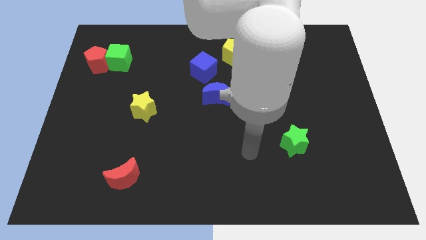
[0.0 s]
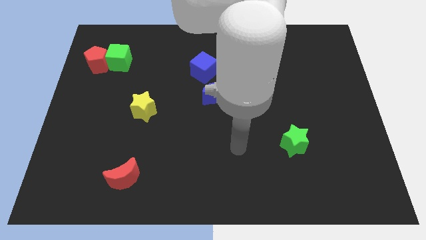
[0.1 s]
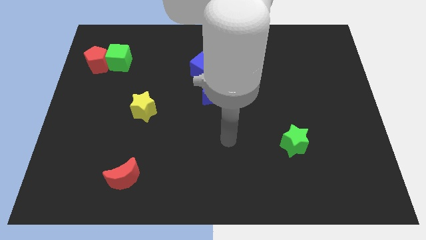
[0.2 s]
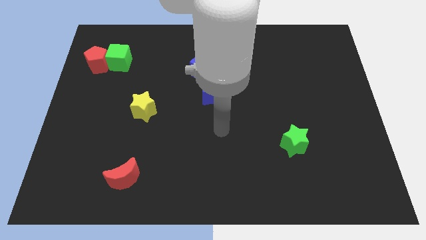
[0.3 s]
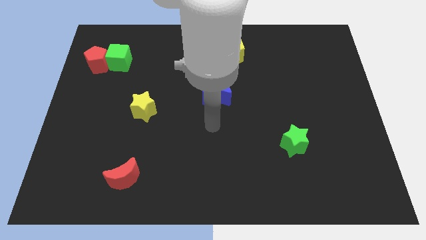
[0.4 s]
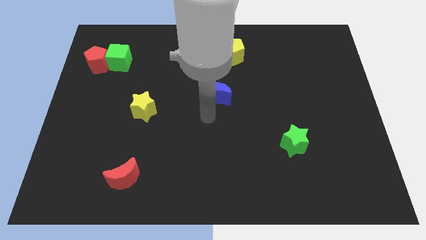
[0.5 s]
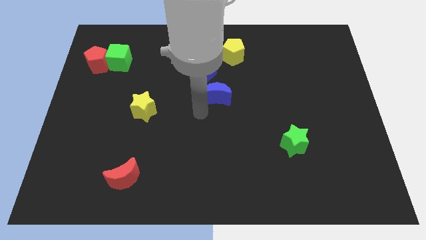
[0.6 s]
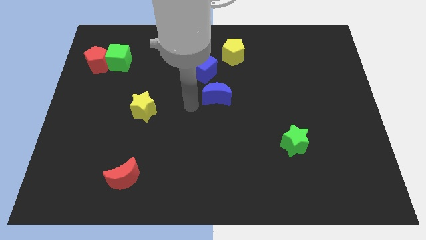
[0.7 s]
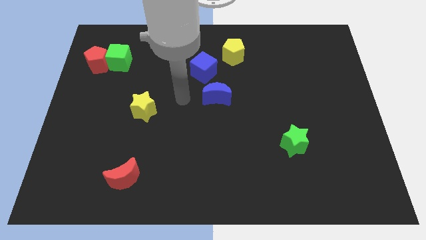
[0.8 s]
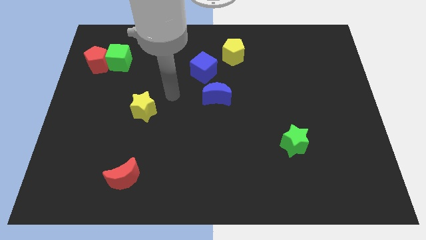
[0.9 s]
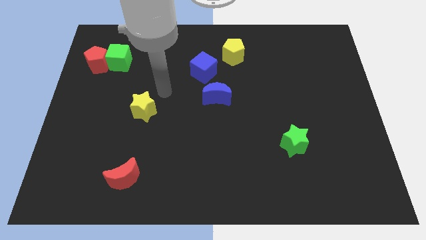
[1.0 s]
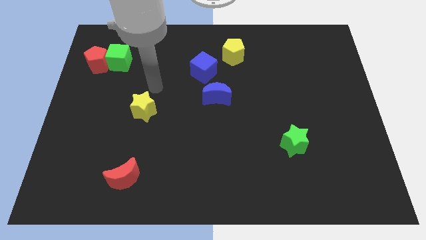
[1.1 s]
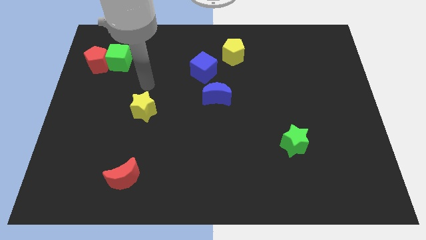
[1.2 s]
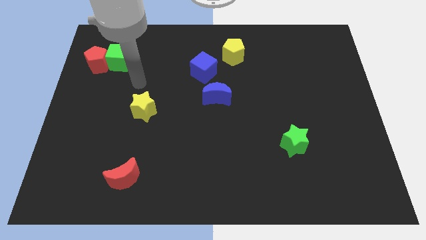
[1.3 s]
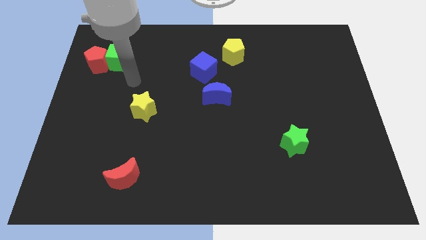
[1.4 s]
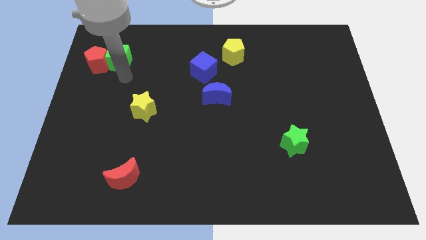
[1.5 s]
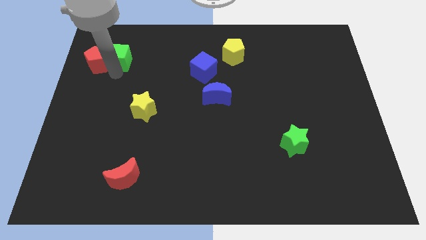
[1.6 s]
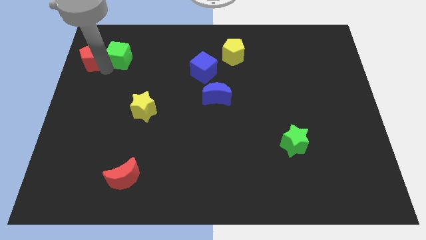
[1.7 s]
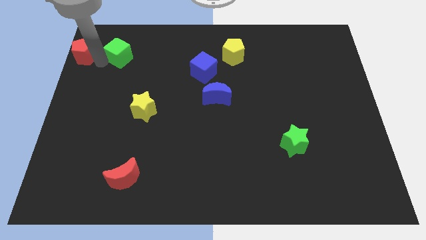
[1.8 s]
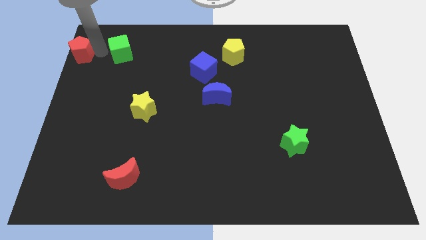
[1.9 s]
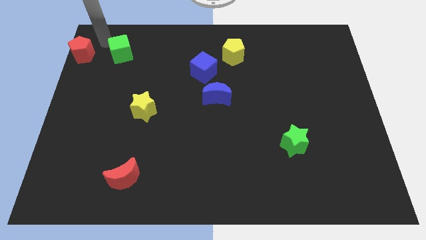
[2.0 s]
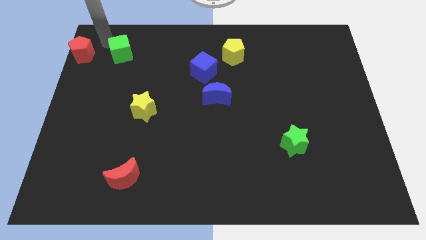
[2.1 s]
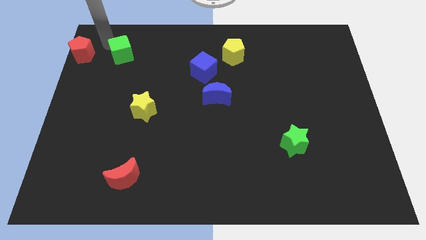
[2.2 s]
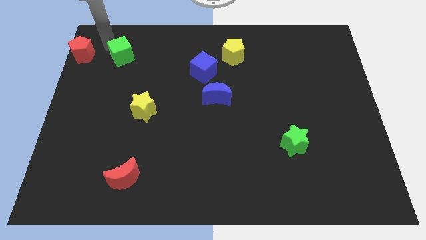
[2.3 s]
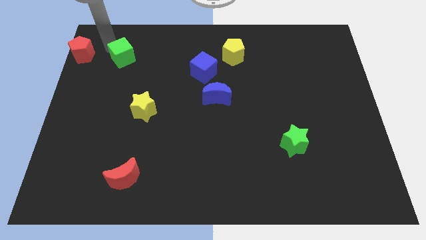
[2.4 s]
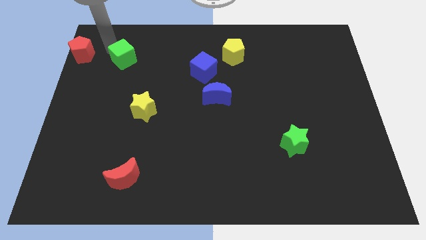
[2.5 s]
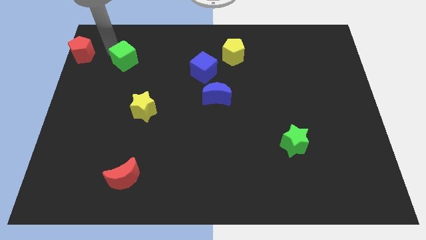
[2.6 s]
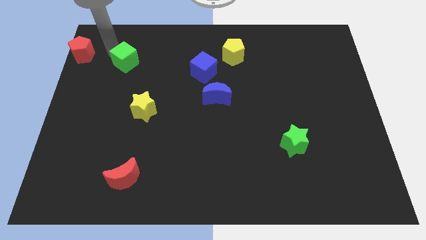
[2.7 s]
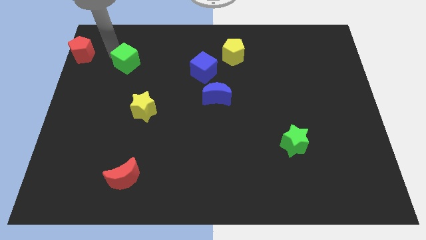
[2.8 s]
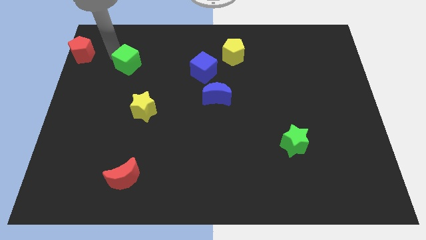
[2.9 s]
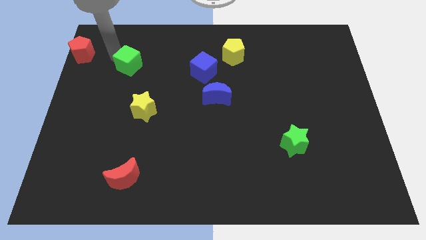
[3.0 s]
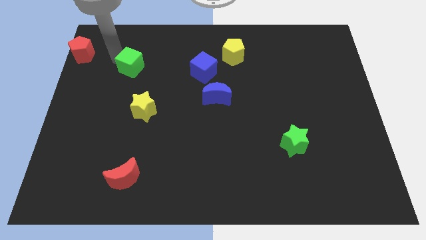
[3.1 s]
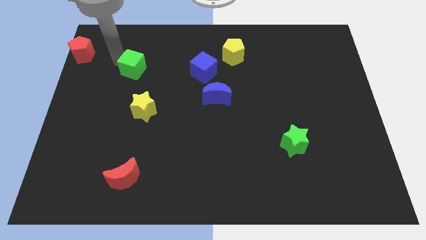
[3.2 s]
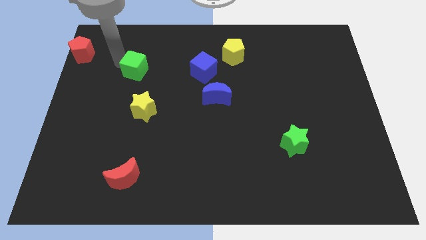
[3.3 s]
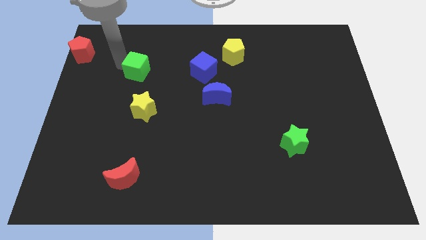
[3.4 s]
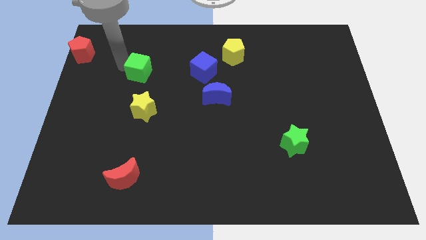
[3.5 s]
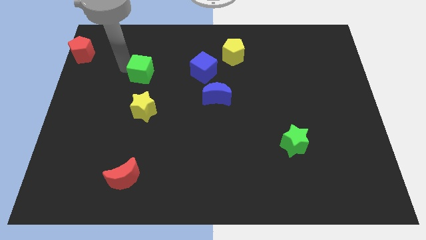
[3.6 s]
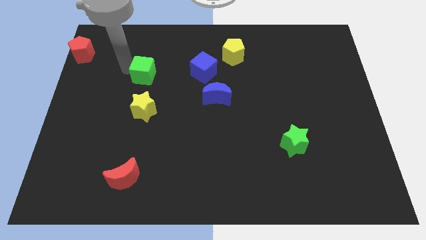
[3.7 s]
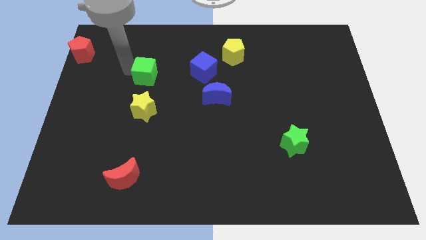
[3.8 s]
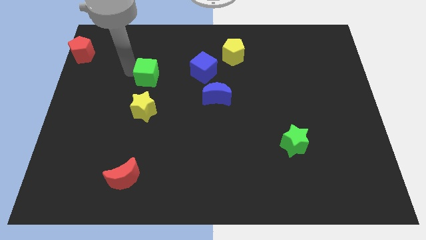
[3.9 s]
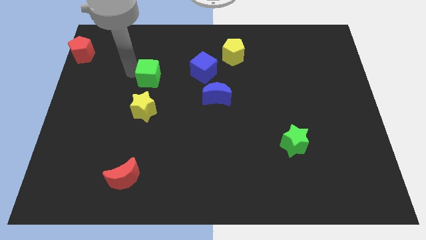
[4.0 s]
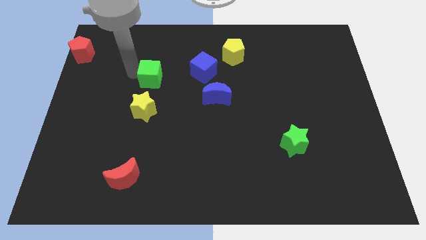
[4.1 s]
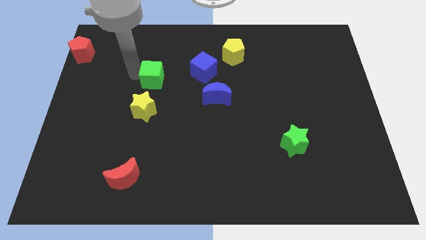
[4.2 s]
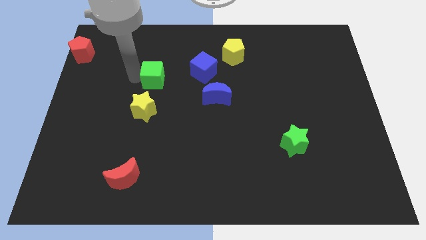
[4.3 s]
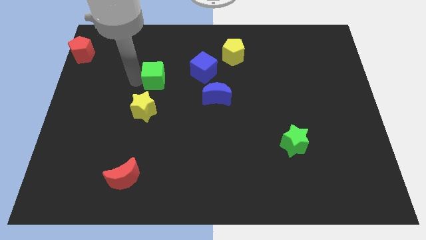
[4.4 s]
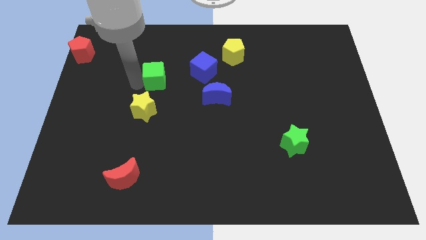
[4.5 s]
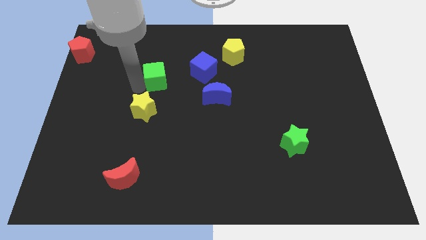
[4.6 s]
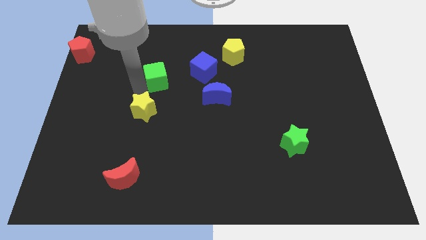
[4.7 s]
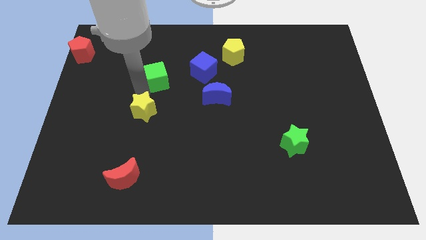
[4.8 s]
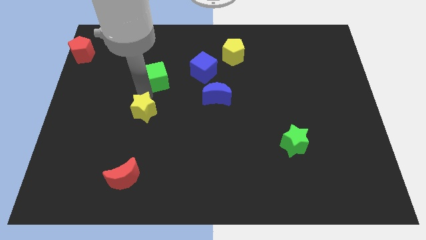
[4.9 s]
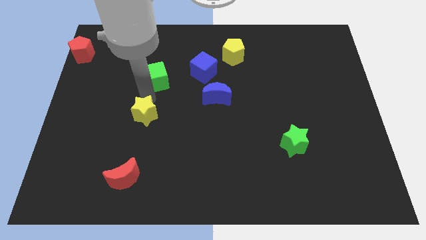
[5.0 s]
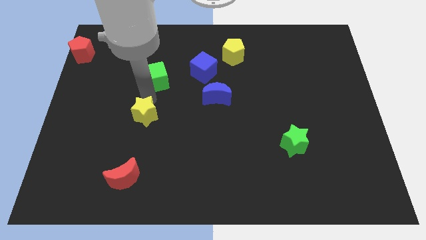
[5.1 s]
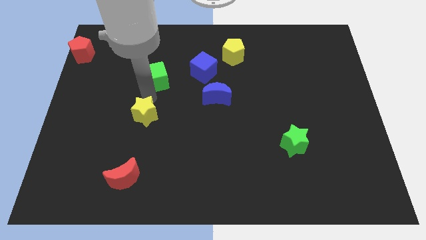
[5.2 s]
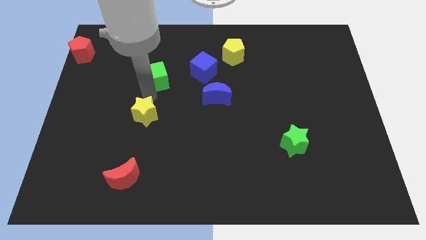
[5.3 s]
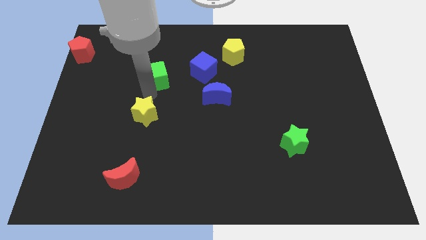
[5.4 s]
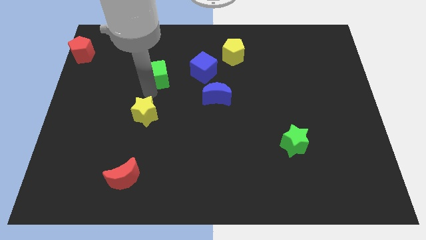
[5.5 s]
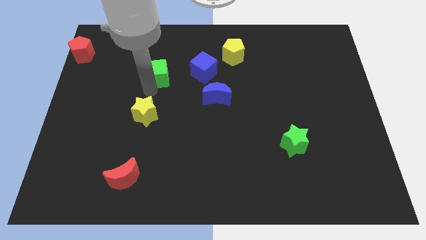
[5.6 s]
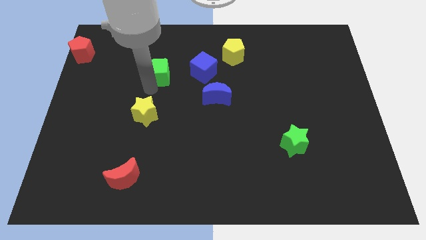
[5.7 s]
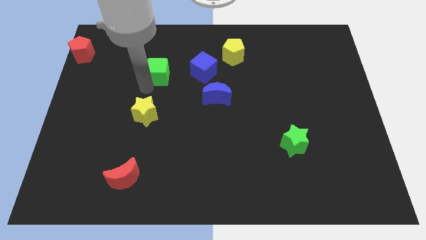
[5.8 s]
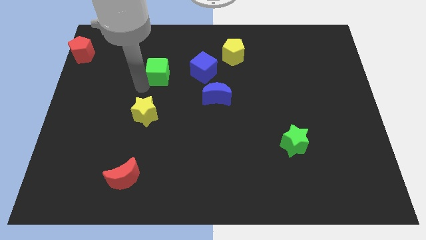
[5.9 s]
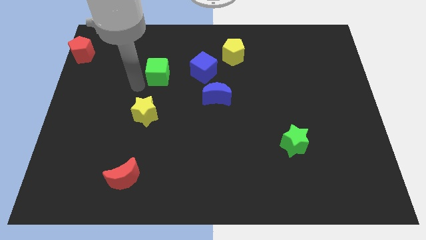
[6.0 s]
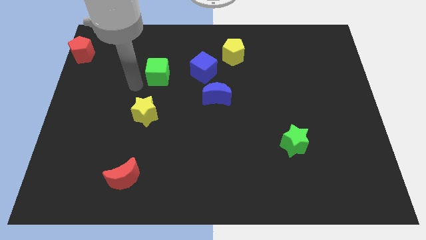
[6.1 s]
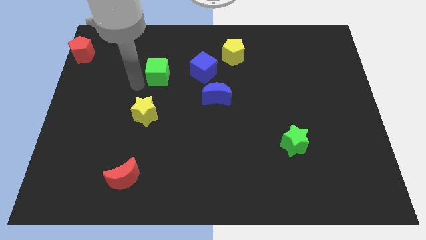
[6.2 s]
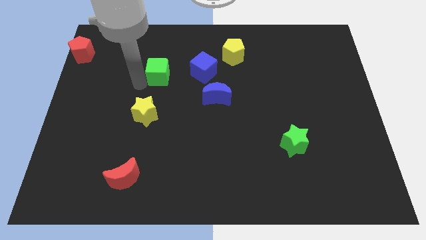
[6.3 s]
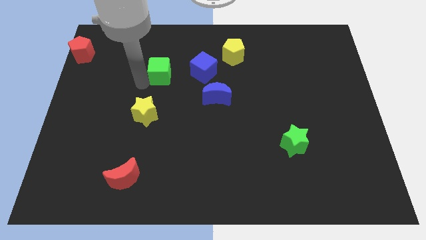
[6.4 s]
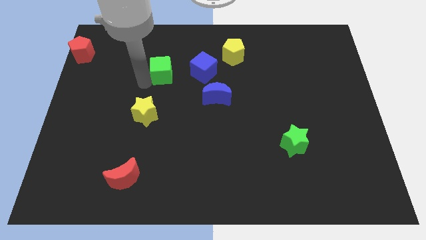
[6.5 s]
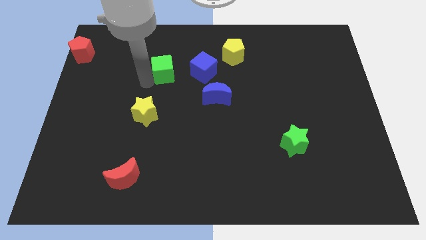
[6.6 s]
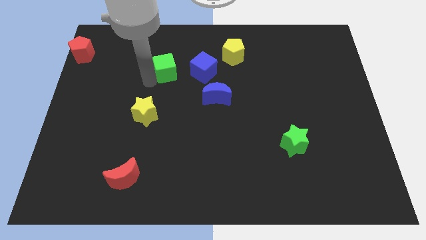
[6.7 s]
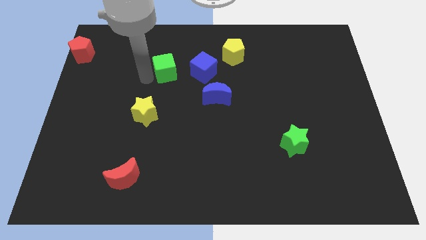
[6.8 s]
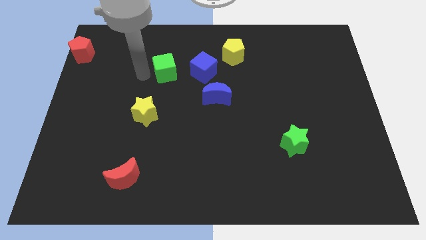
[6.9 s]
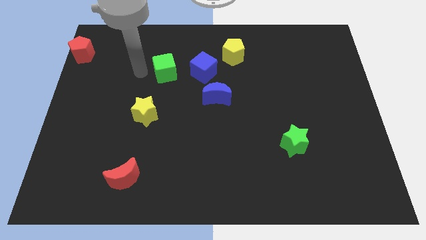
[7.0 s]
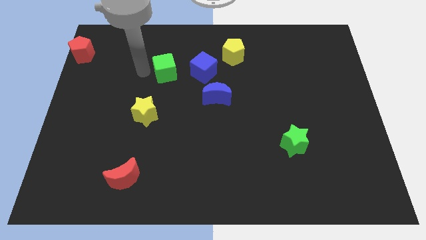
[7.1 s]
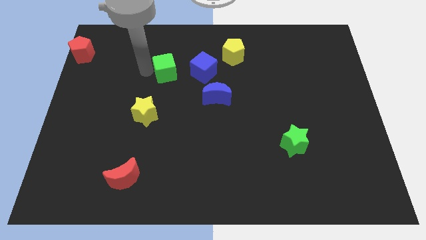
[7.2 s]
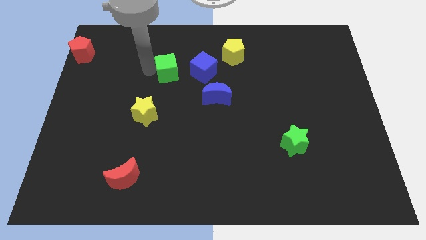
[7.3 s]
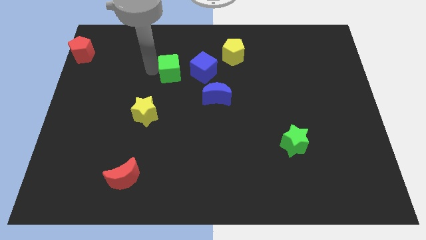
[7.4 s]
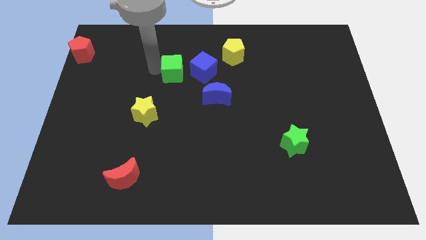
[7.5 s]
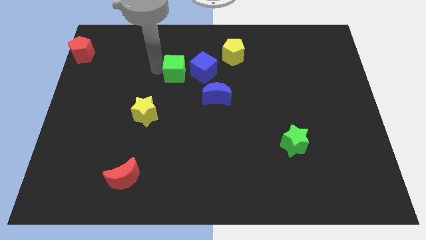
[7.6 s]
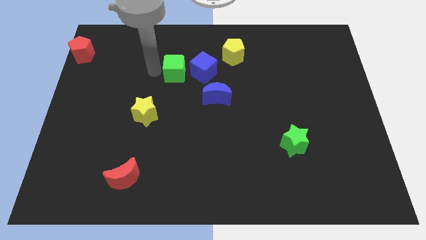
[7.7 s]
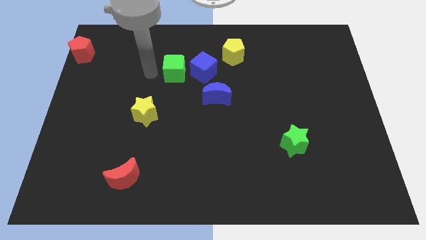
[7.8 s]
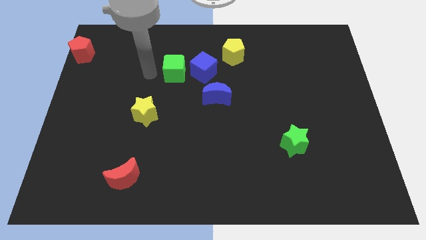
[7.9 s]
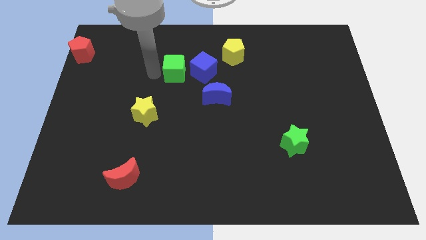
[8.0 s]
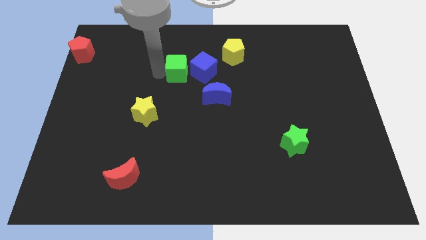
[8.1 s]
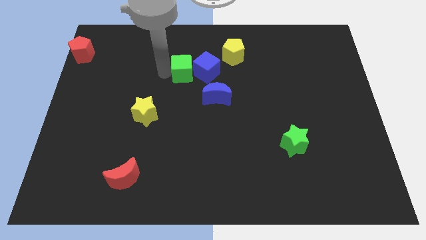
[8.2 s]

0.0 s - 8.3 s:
push the green cube to the blue cube
